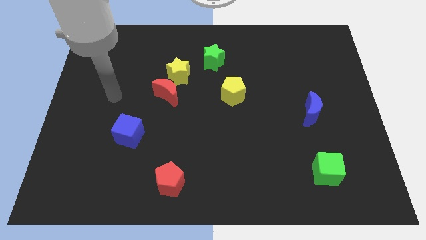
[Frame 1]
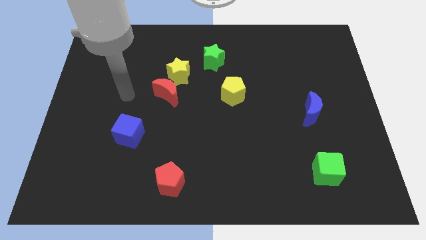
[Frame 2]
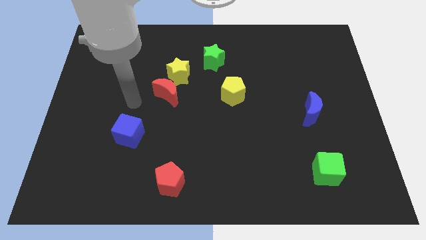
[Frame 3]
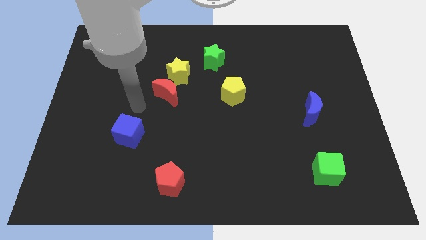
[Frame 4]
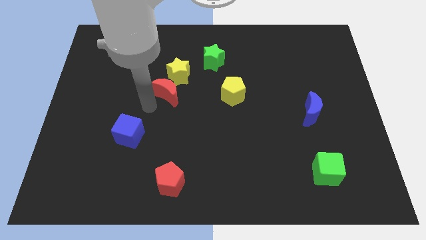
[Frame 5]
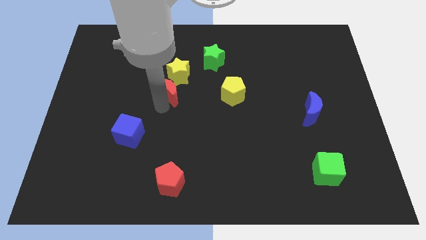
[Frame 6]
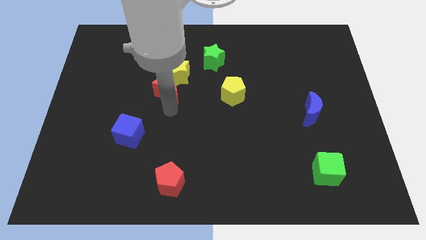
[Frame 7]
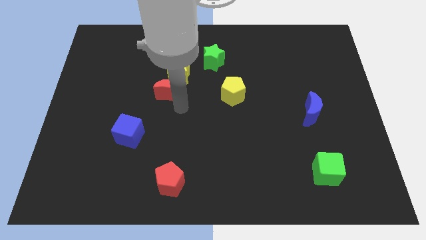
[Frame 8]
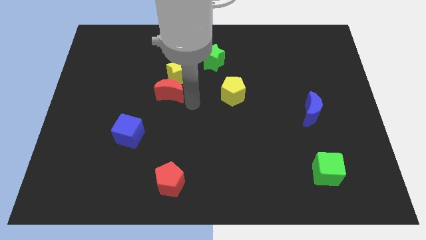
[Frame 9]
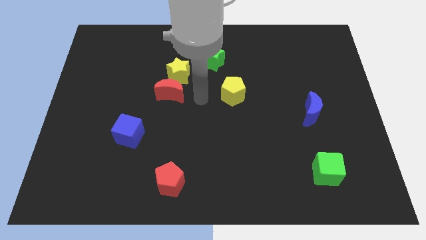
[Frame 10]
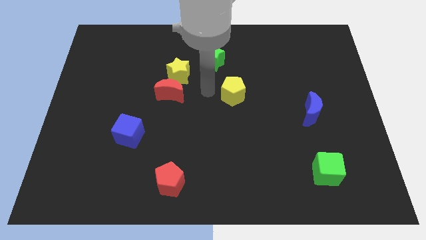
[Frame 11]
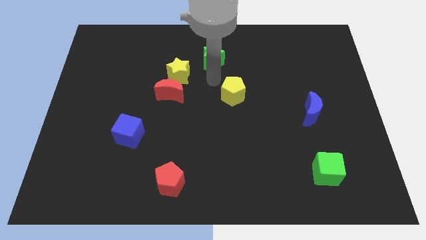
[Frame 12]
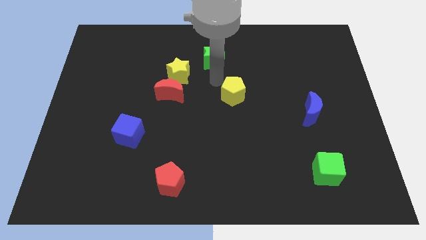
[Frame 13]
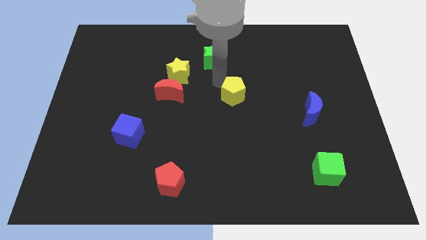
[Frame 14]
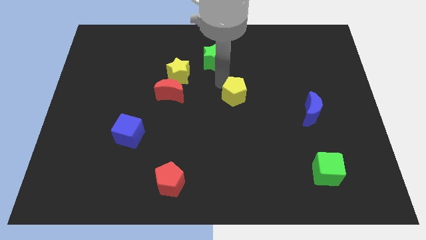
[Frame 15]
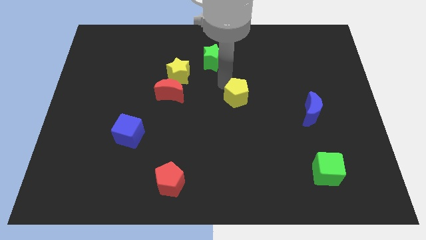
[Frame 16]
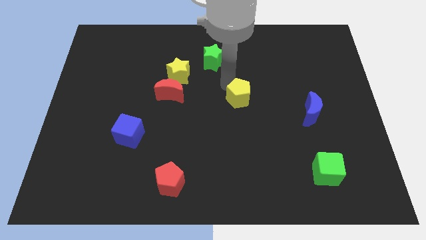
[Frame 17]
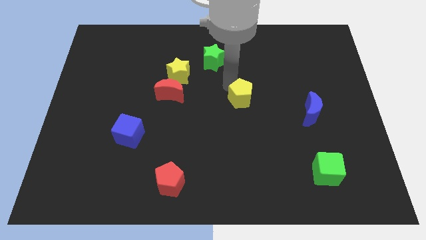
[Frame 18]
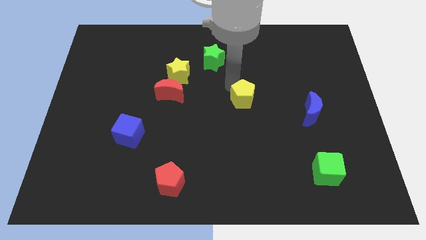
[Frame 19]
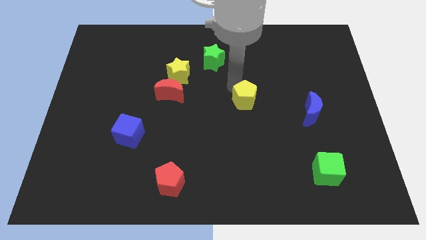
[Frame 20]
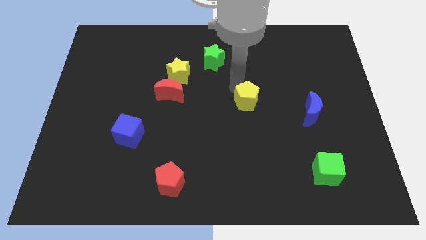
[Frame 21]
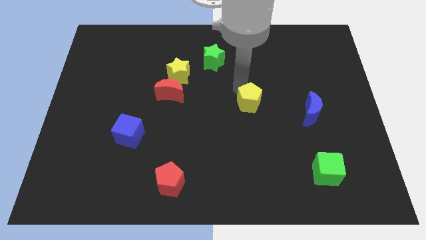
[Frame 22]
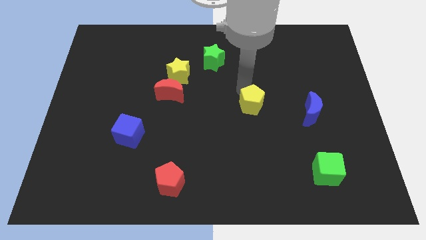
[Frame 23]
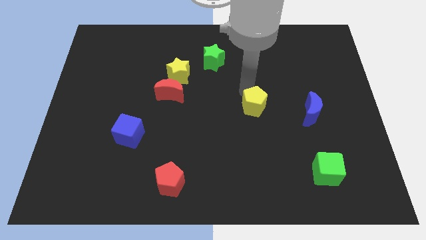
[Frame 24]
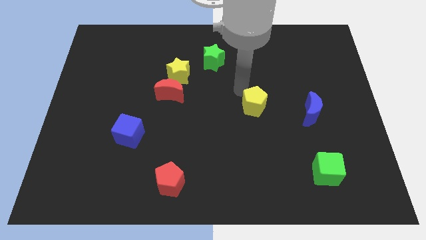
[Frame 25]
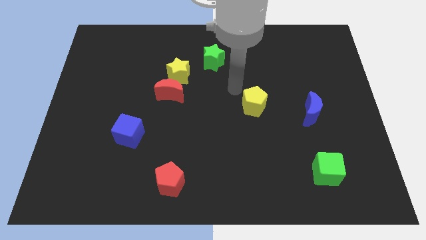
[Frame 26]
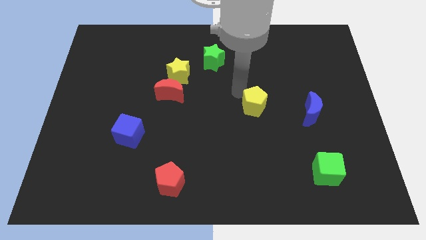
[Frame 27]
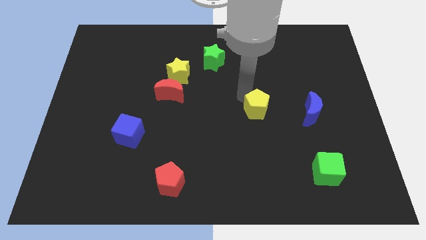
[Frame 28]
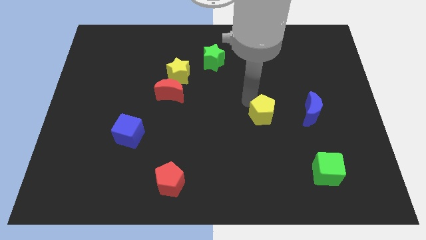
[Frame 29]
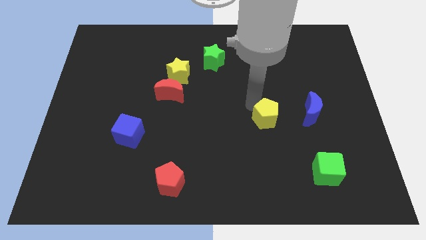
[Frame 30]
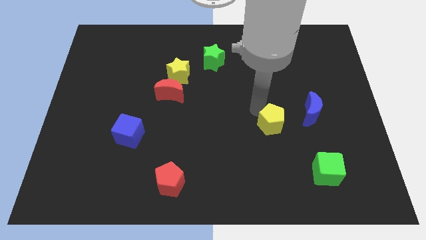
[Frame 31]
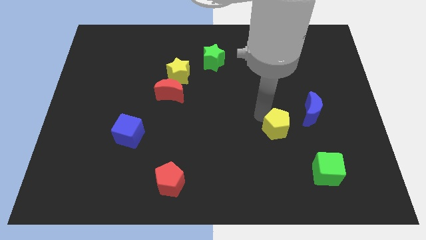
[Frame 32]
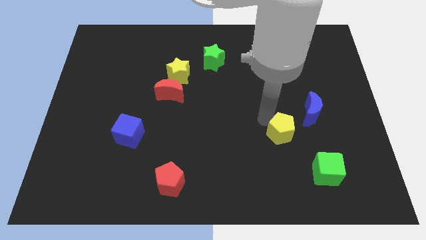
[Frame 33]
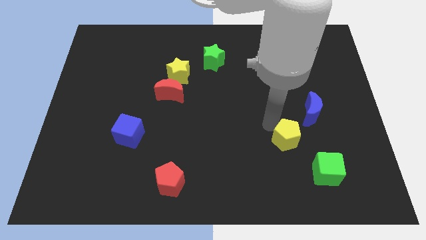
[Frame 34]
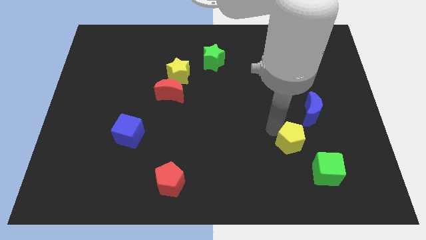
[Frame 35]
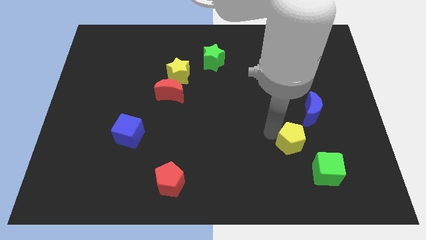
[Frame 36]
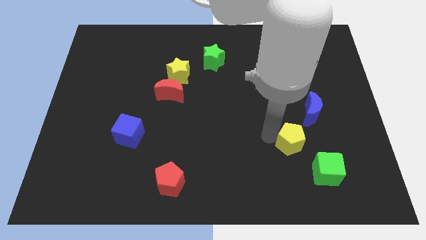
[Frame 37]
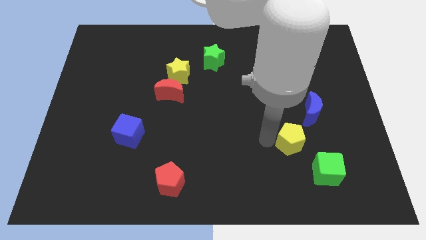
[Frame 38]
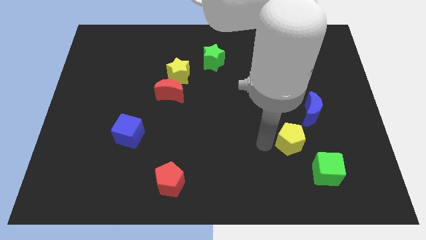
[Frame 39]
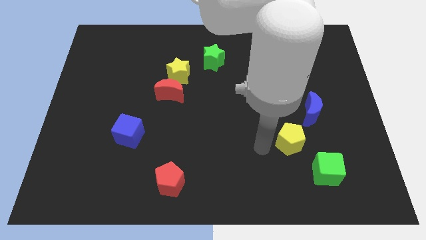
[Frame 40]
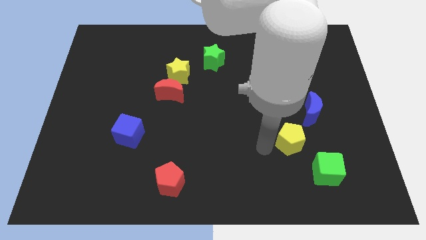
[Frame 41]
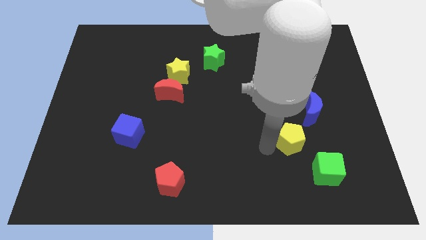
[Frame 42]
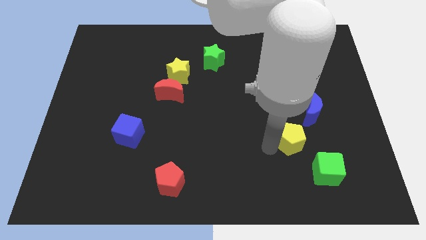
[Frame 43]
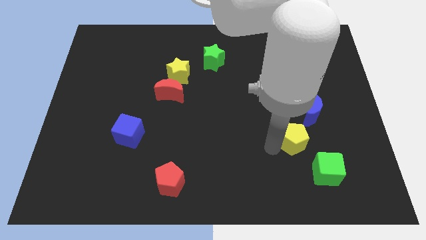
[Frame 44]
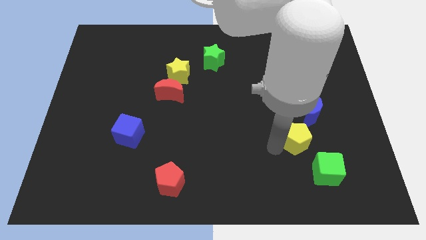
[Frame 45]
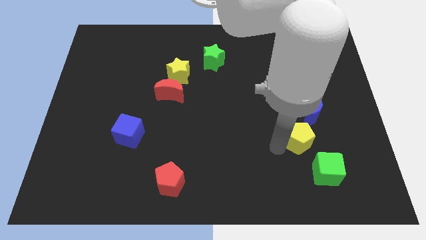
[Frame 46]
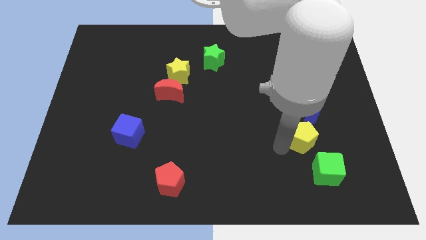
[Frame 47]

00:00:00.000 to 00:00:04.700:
move the yellow pentagon downwards and then to the right

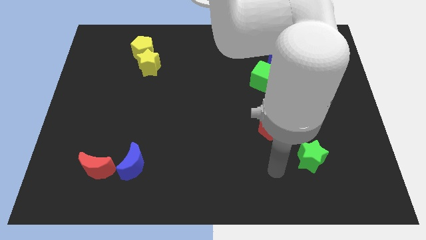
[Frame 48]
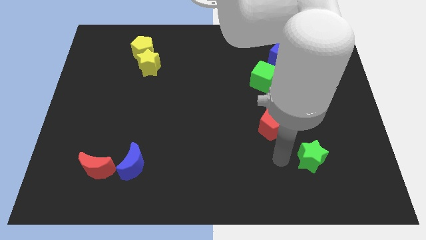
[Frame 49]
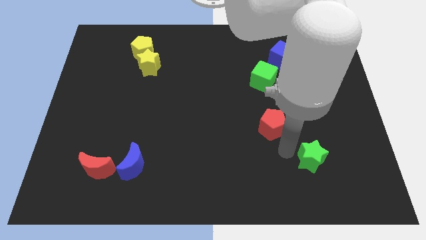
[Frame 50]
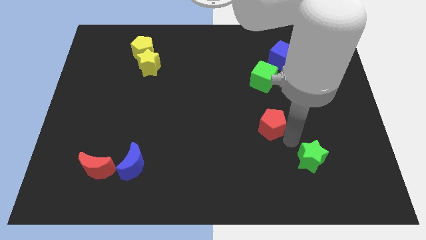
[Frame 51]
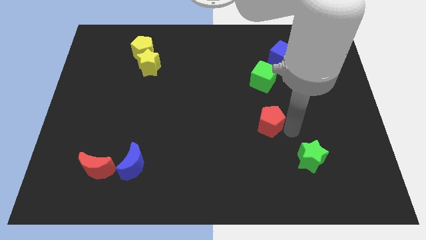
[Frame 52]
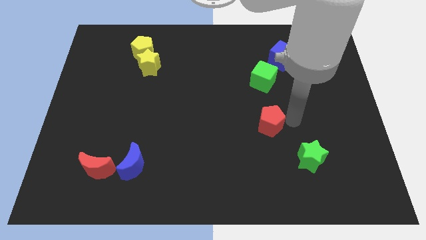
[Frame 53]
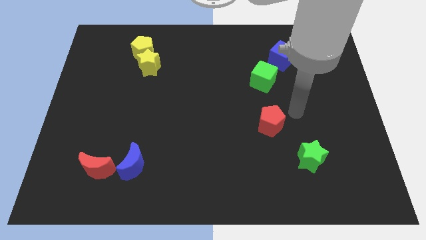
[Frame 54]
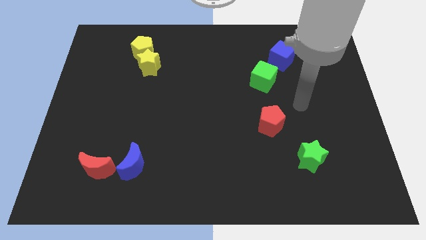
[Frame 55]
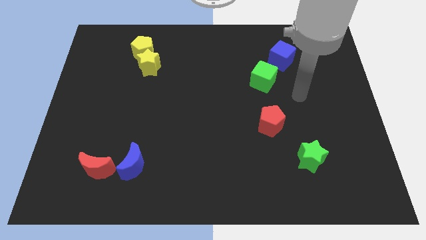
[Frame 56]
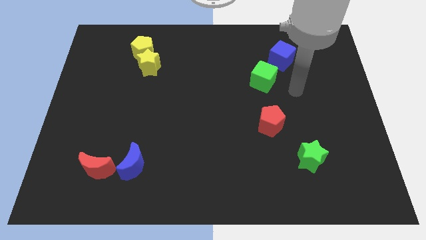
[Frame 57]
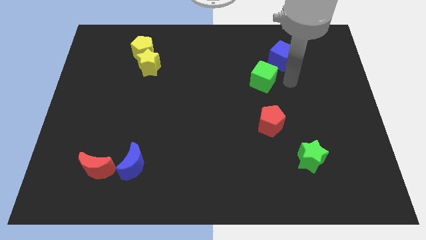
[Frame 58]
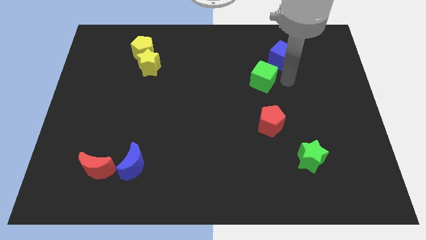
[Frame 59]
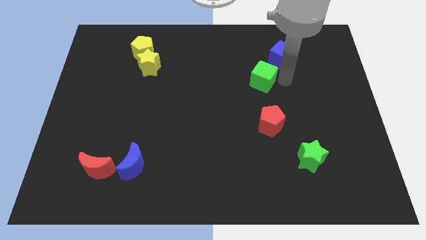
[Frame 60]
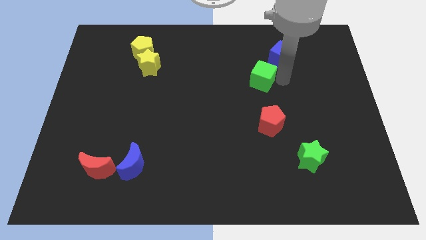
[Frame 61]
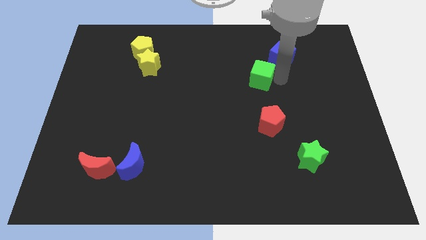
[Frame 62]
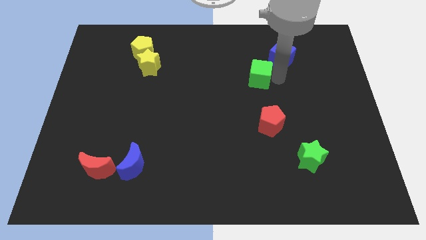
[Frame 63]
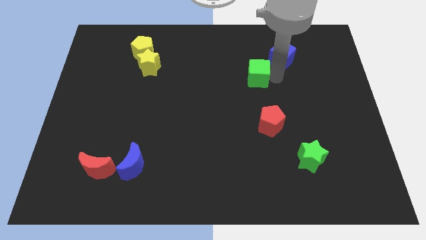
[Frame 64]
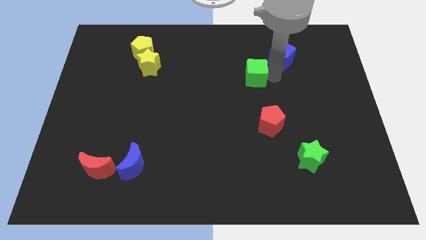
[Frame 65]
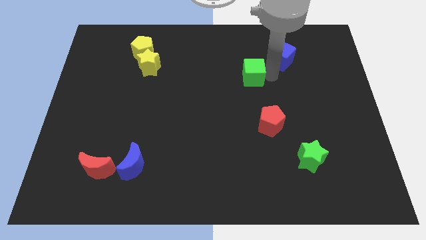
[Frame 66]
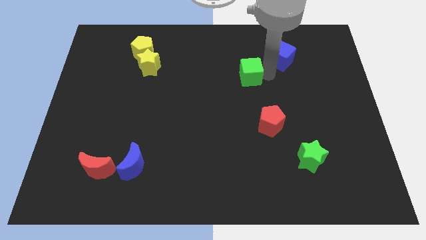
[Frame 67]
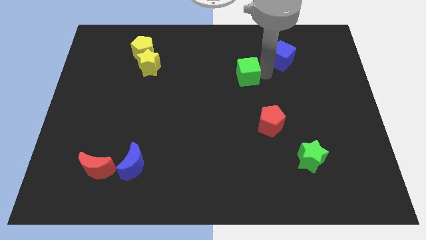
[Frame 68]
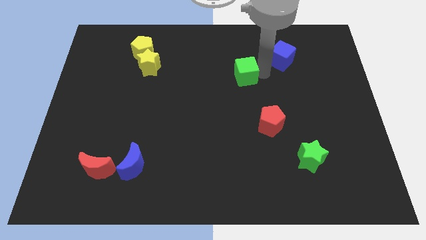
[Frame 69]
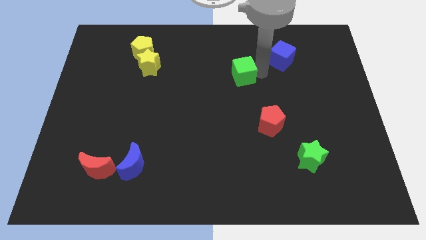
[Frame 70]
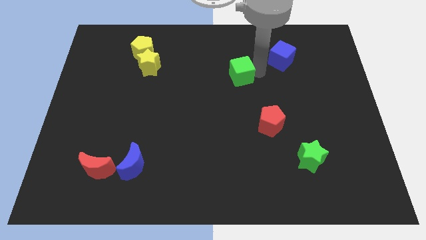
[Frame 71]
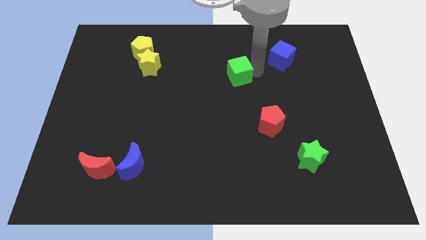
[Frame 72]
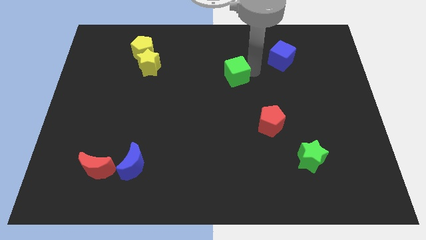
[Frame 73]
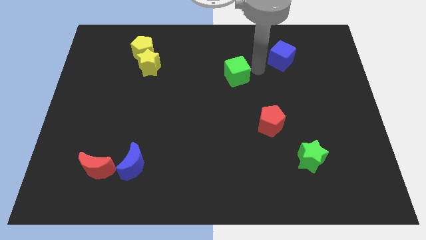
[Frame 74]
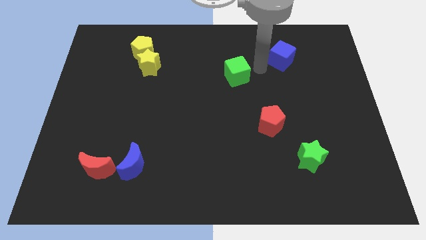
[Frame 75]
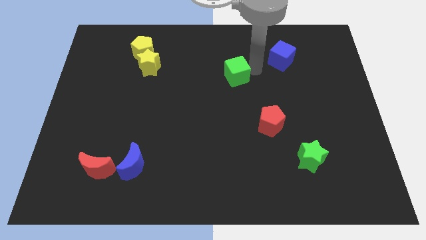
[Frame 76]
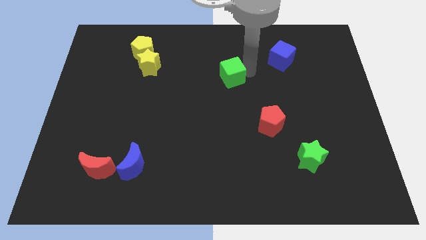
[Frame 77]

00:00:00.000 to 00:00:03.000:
slightly move the green cube left
